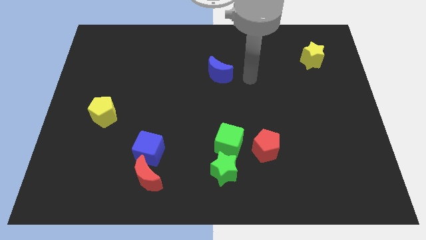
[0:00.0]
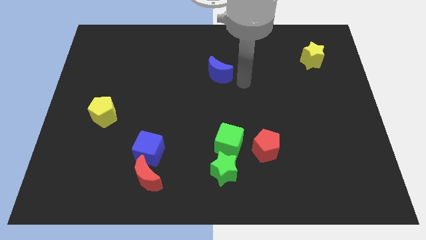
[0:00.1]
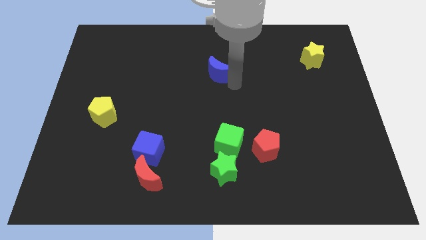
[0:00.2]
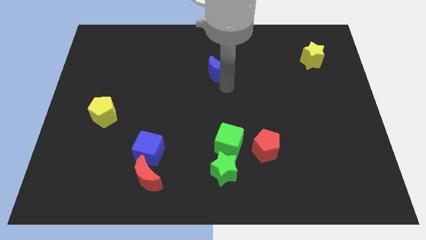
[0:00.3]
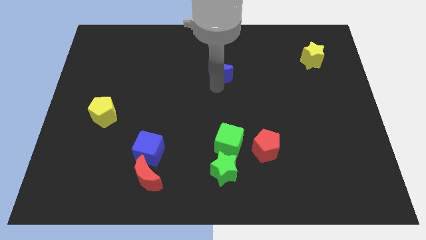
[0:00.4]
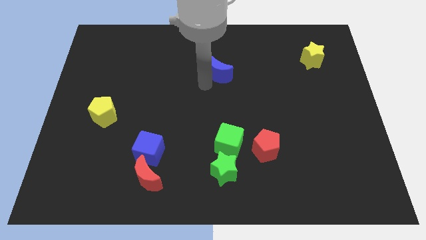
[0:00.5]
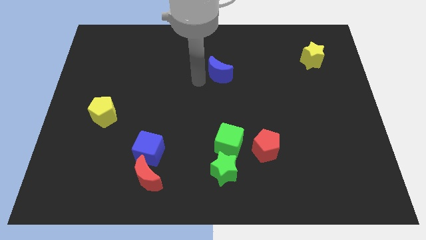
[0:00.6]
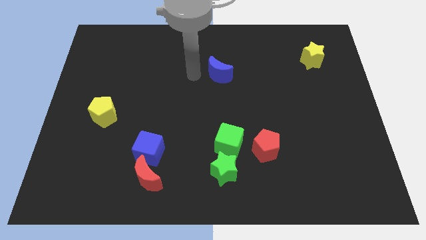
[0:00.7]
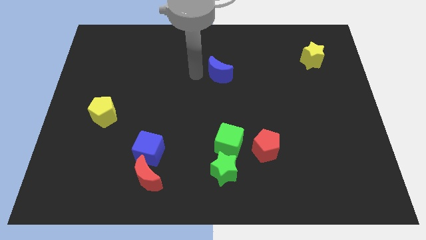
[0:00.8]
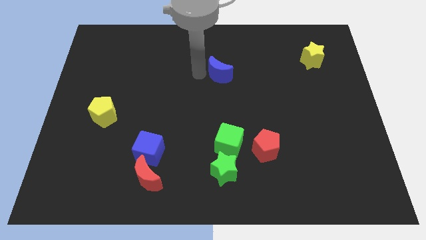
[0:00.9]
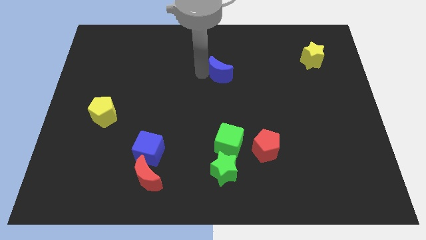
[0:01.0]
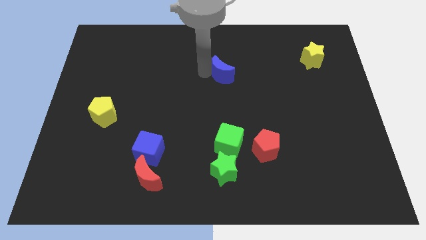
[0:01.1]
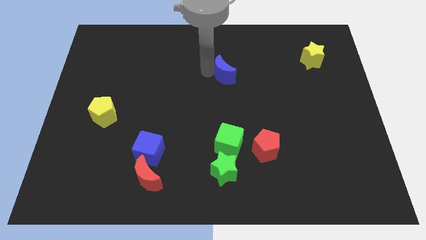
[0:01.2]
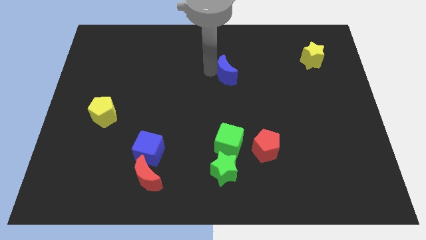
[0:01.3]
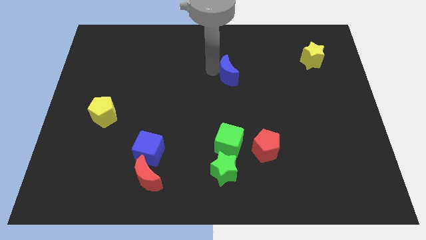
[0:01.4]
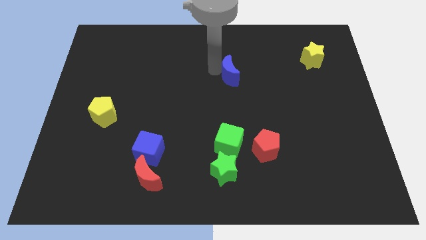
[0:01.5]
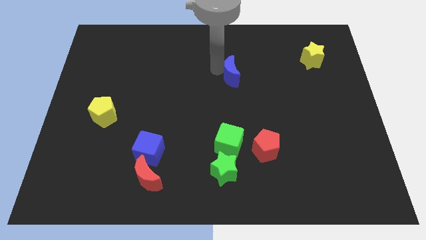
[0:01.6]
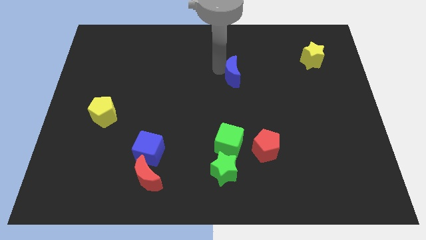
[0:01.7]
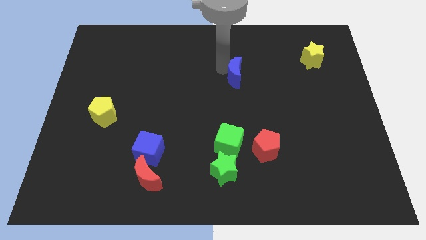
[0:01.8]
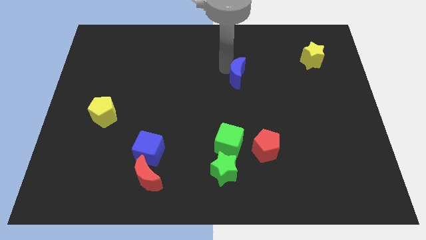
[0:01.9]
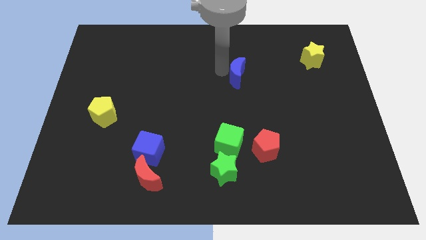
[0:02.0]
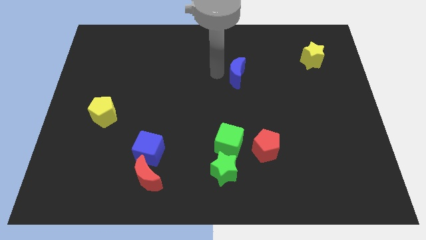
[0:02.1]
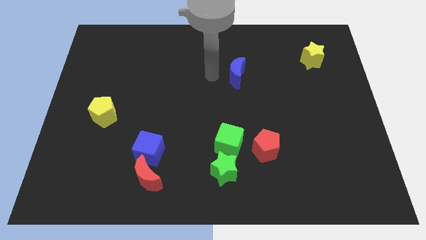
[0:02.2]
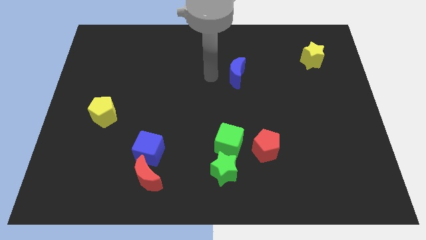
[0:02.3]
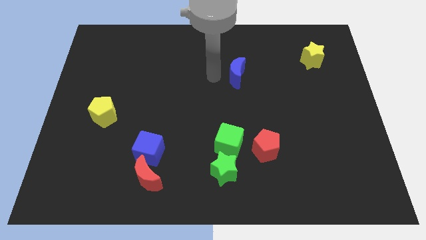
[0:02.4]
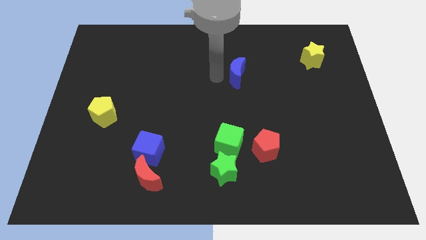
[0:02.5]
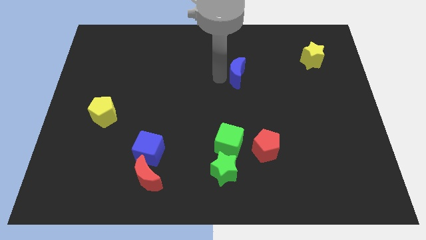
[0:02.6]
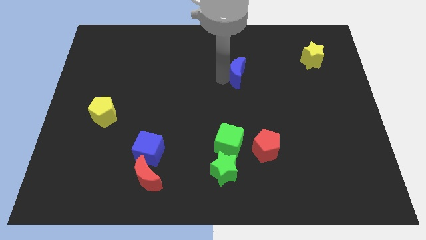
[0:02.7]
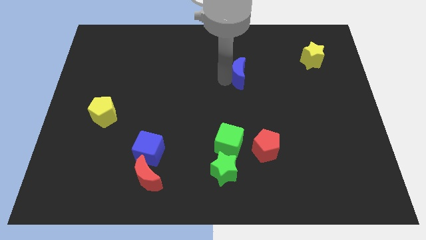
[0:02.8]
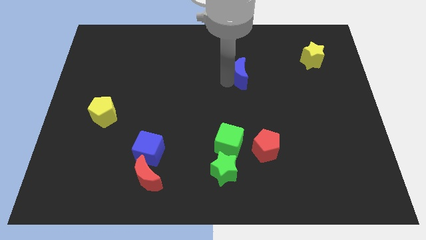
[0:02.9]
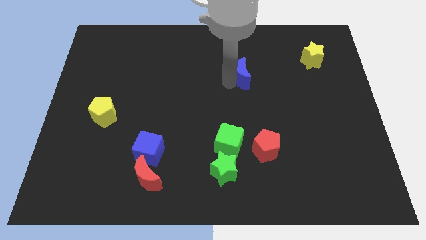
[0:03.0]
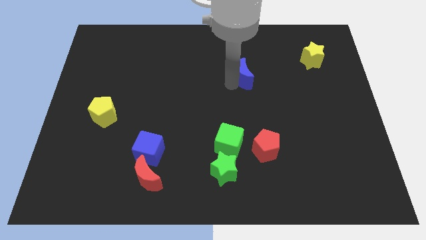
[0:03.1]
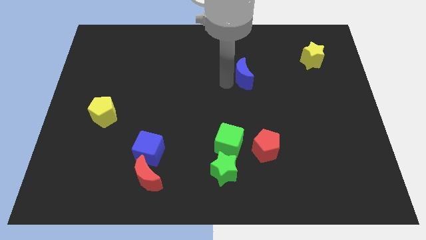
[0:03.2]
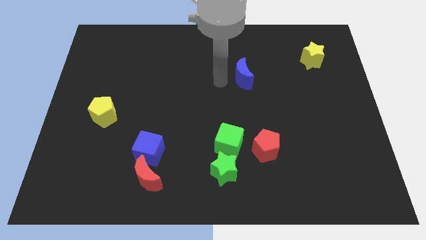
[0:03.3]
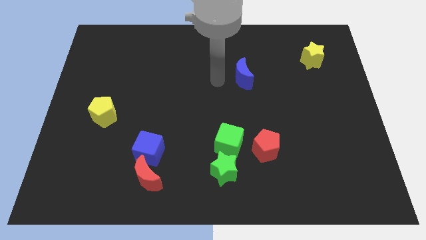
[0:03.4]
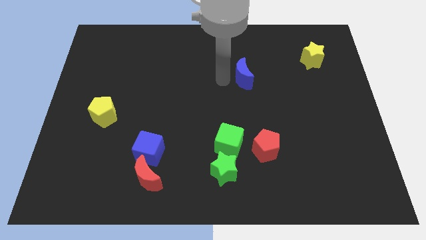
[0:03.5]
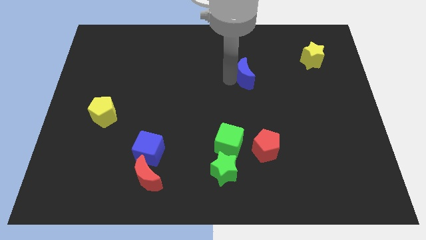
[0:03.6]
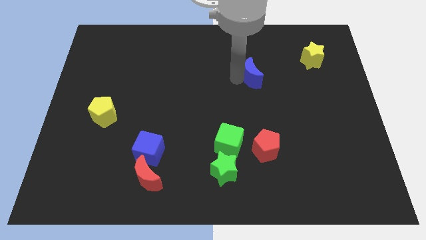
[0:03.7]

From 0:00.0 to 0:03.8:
move the blue moon right slightly

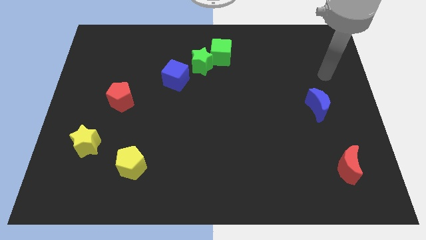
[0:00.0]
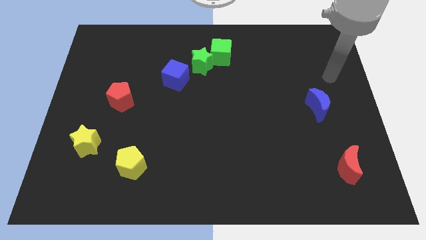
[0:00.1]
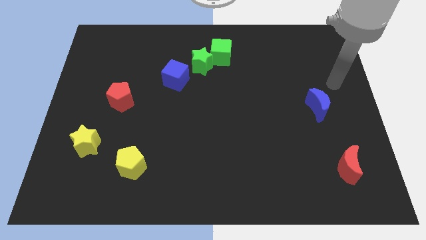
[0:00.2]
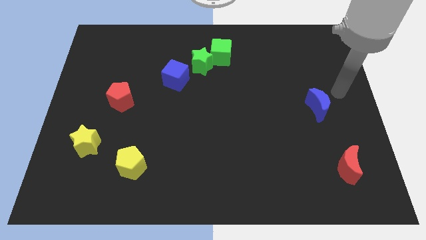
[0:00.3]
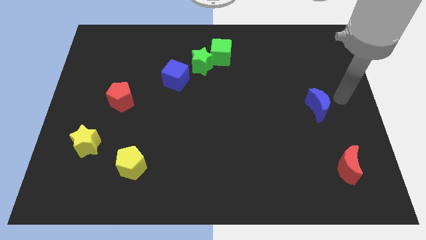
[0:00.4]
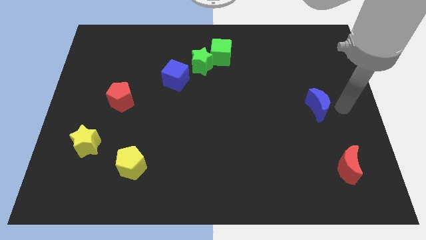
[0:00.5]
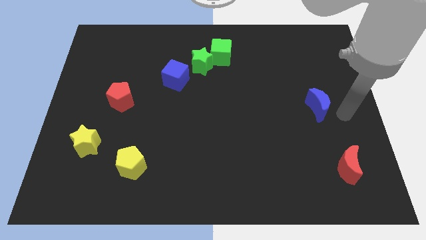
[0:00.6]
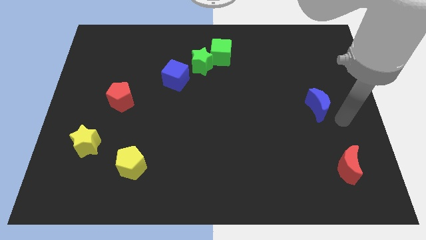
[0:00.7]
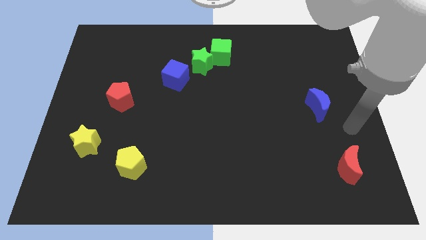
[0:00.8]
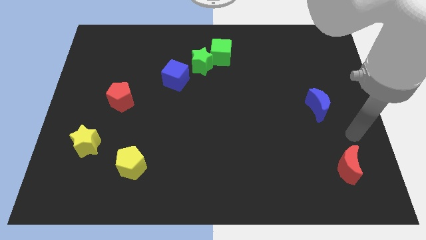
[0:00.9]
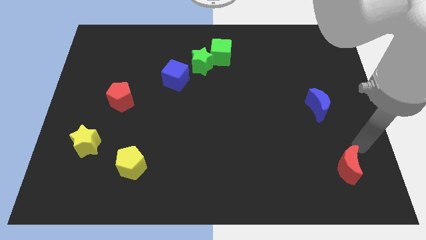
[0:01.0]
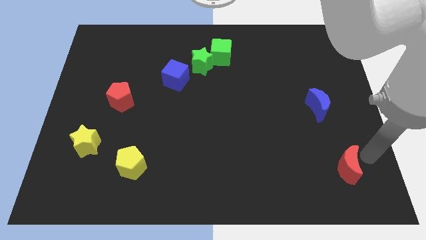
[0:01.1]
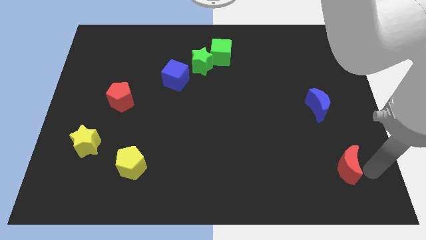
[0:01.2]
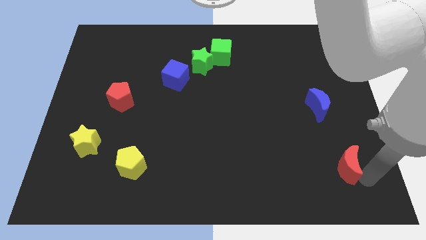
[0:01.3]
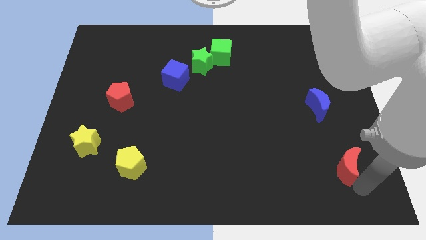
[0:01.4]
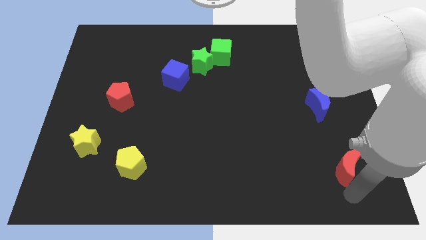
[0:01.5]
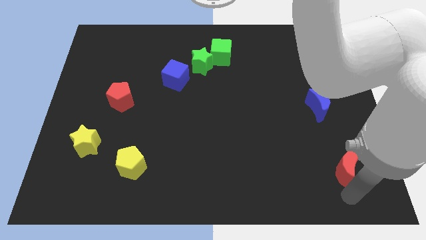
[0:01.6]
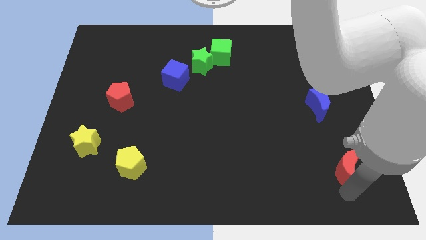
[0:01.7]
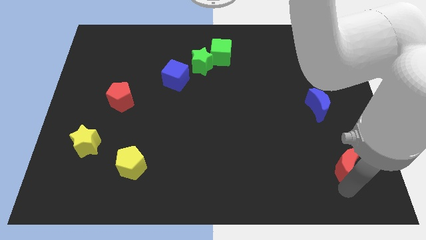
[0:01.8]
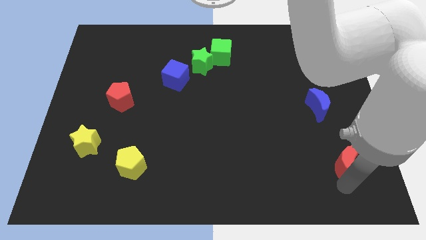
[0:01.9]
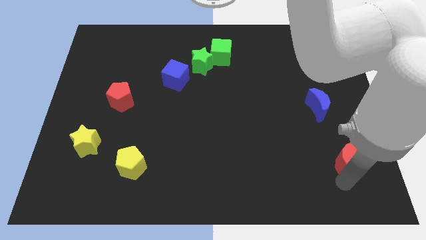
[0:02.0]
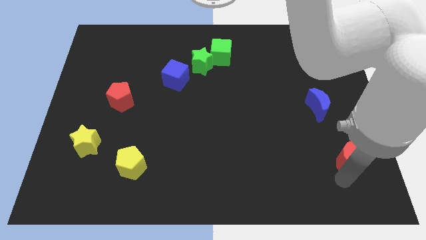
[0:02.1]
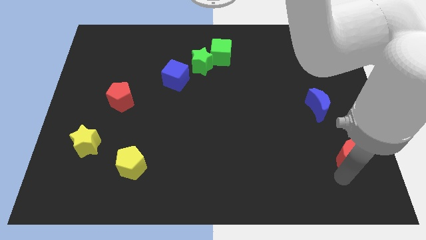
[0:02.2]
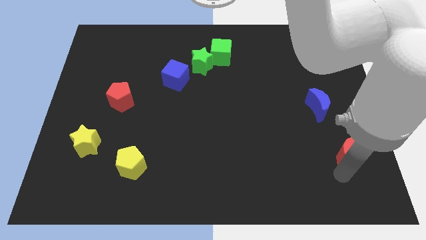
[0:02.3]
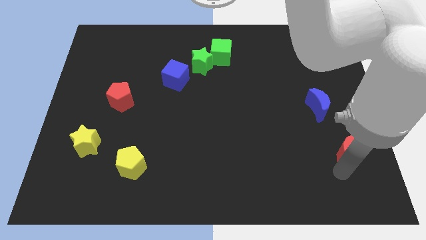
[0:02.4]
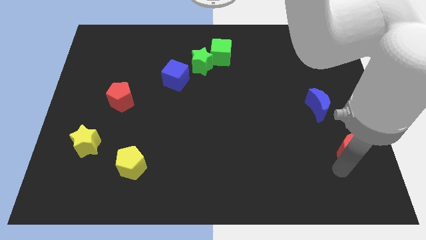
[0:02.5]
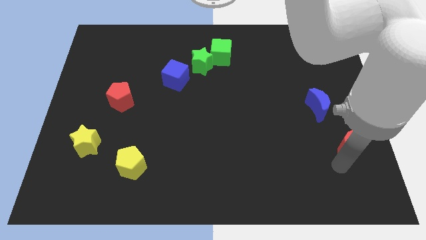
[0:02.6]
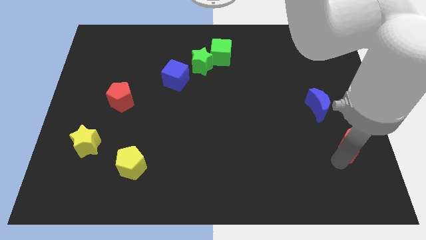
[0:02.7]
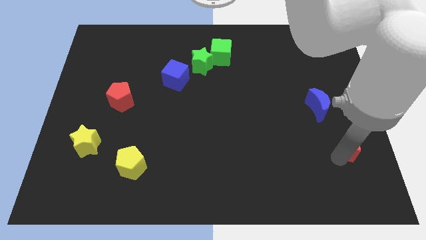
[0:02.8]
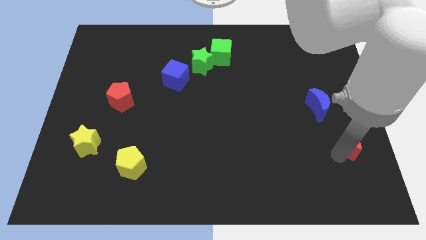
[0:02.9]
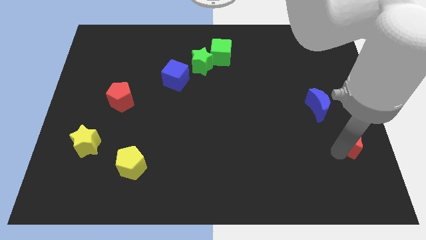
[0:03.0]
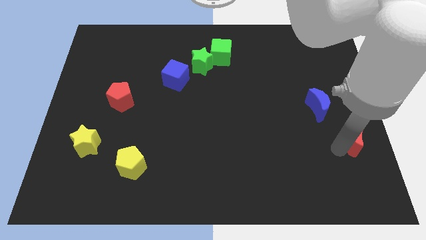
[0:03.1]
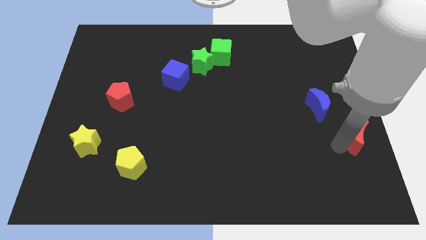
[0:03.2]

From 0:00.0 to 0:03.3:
move the red moon upwards a bit

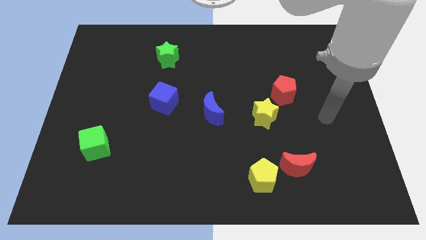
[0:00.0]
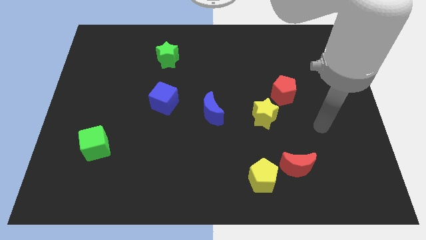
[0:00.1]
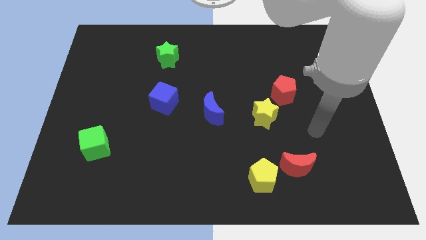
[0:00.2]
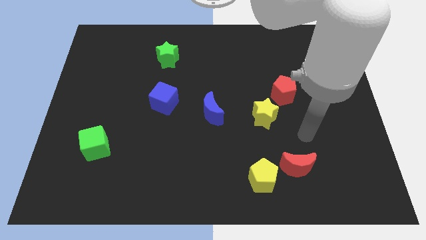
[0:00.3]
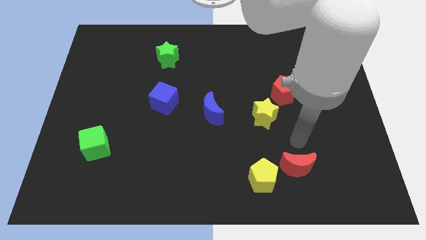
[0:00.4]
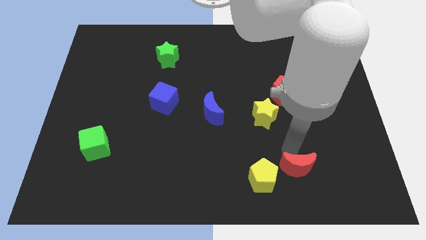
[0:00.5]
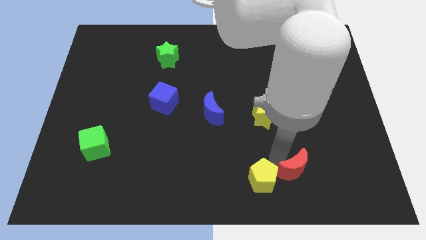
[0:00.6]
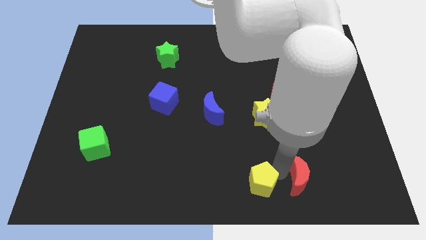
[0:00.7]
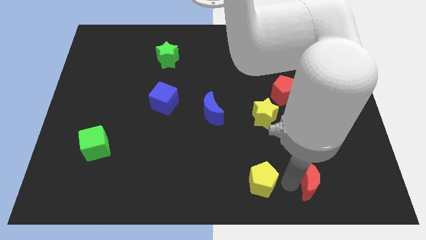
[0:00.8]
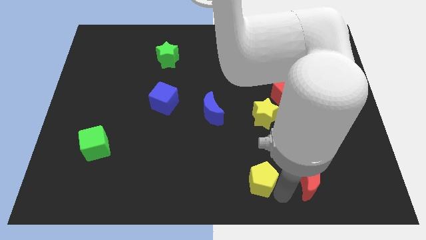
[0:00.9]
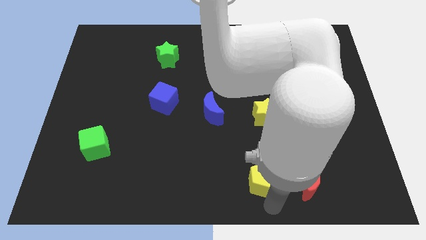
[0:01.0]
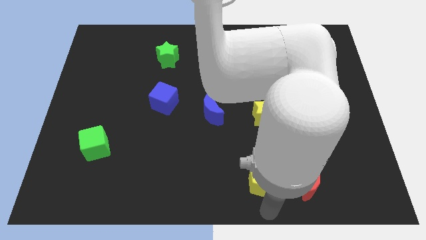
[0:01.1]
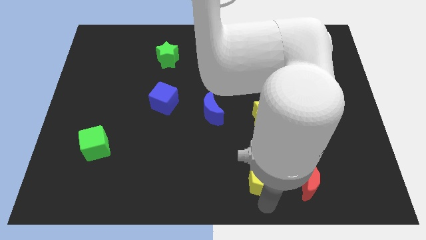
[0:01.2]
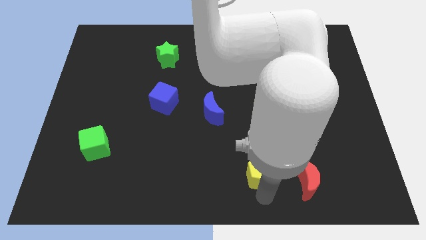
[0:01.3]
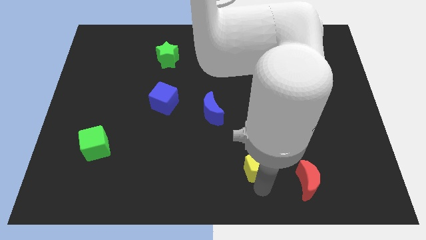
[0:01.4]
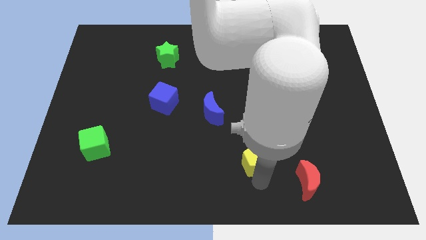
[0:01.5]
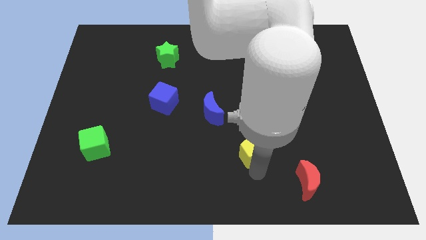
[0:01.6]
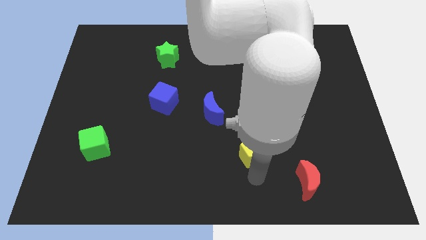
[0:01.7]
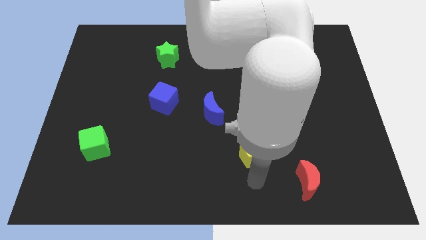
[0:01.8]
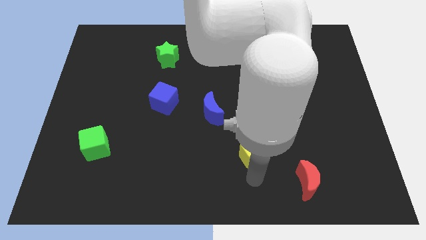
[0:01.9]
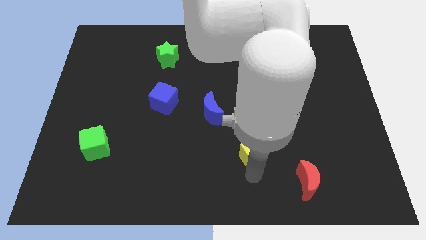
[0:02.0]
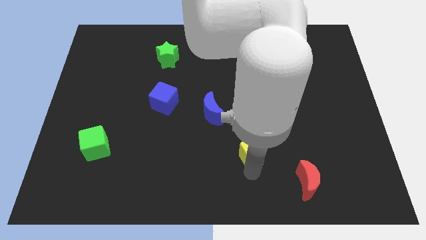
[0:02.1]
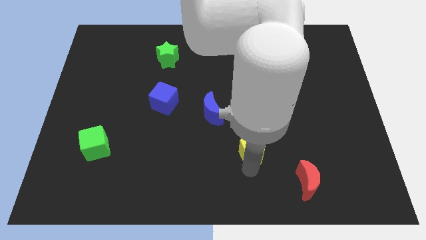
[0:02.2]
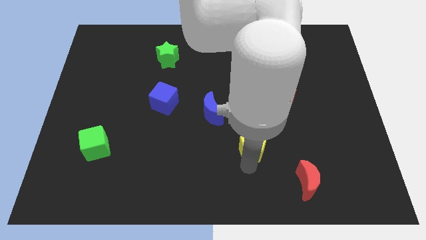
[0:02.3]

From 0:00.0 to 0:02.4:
slightly slide the yellow pentagon up
